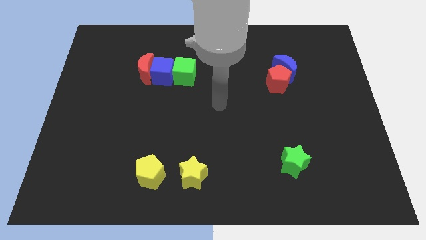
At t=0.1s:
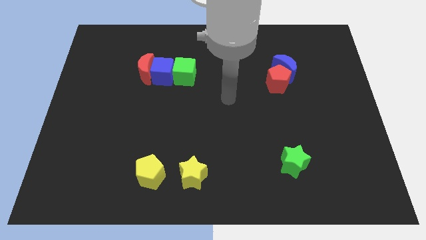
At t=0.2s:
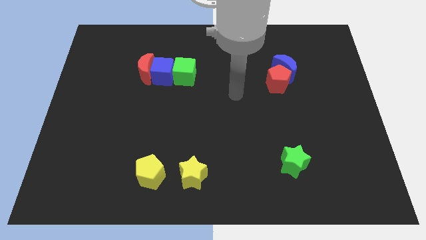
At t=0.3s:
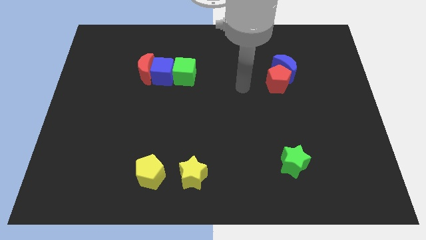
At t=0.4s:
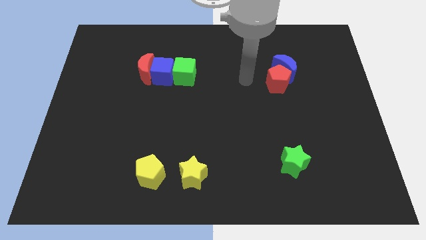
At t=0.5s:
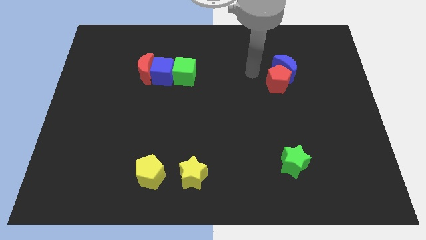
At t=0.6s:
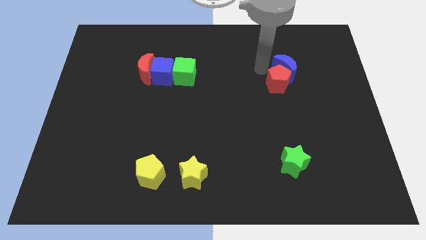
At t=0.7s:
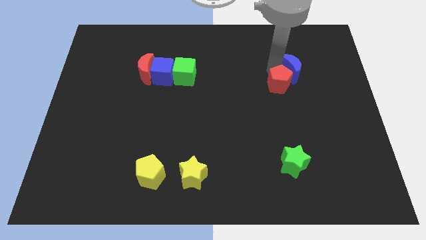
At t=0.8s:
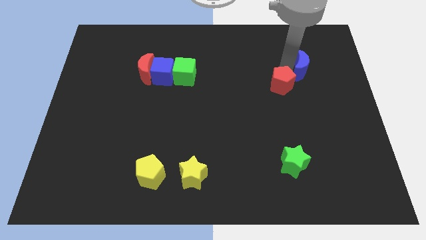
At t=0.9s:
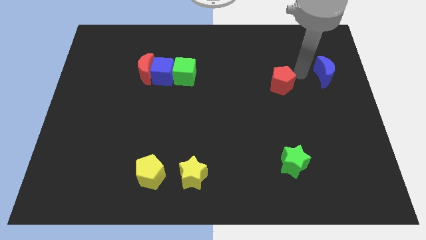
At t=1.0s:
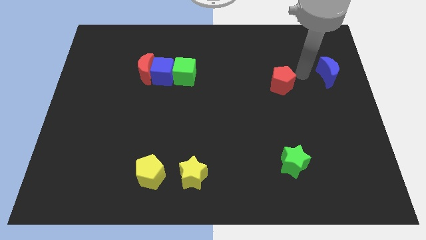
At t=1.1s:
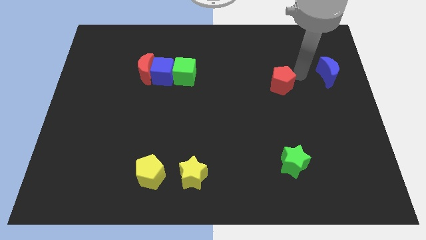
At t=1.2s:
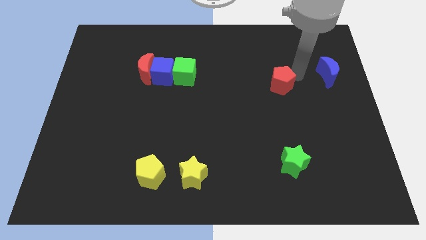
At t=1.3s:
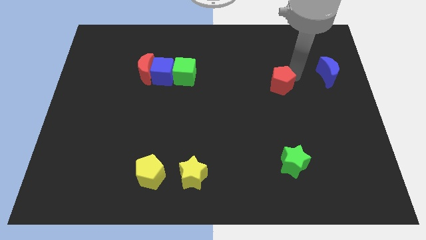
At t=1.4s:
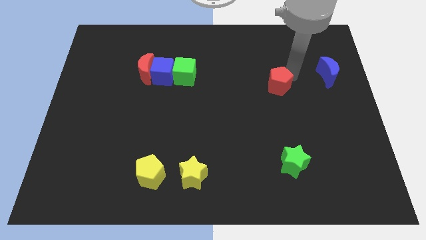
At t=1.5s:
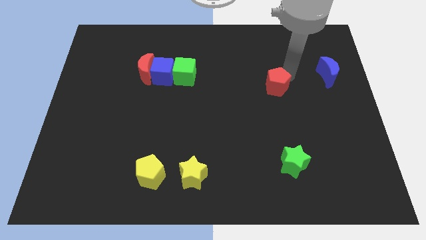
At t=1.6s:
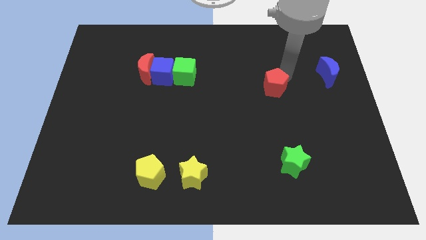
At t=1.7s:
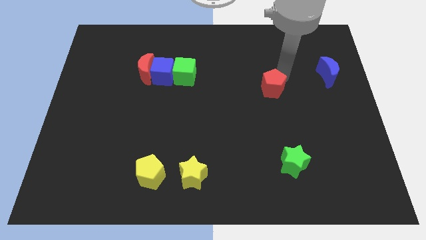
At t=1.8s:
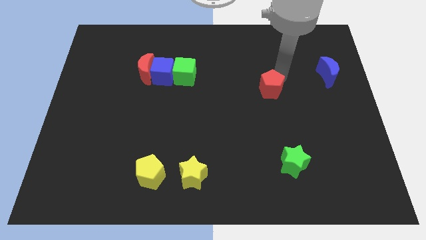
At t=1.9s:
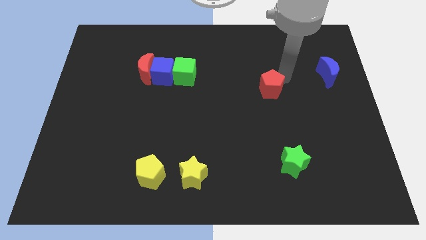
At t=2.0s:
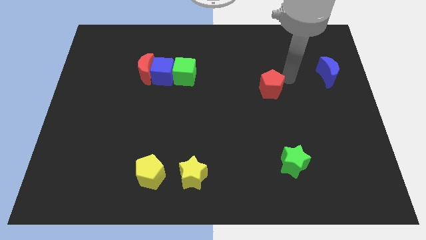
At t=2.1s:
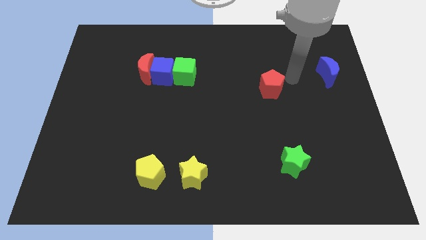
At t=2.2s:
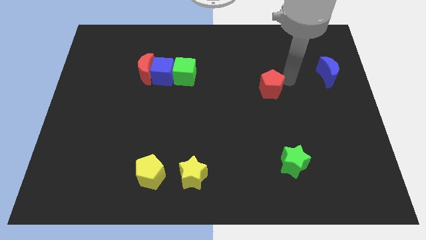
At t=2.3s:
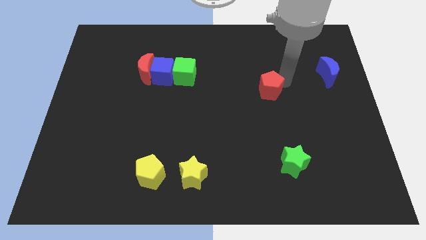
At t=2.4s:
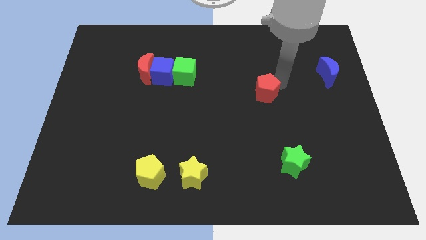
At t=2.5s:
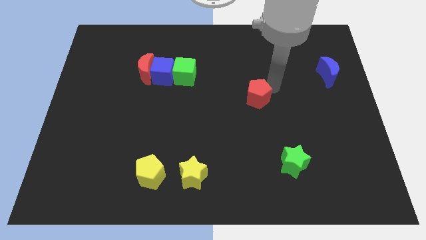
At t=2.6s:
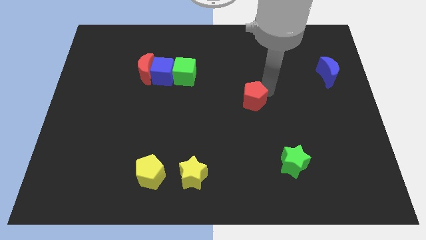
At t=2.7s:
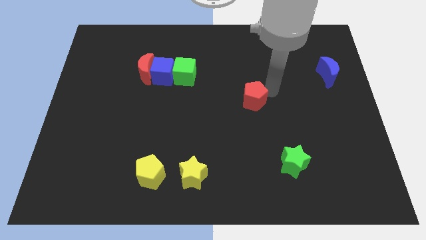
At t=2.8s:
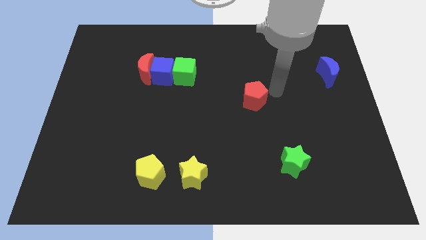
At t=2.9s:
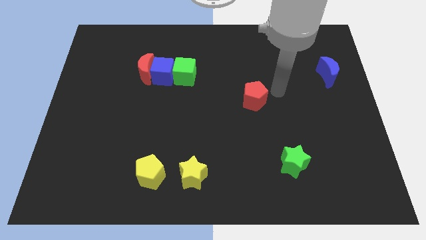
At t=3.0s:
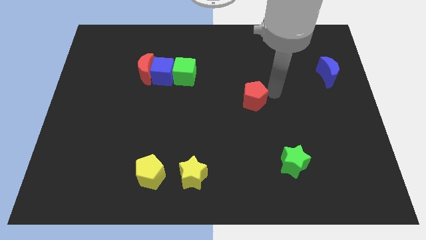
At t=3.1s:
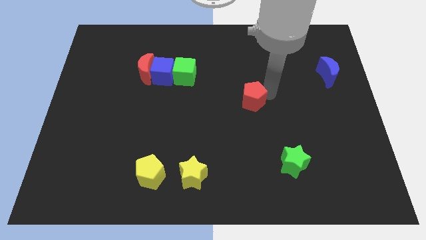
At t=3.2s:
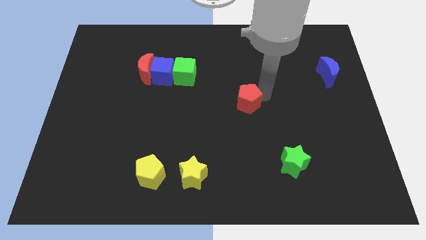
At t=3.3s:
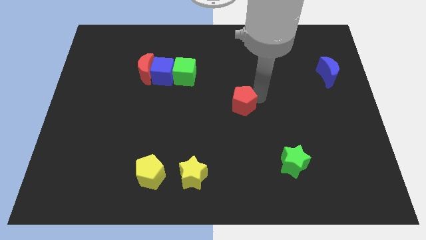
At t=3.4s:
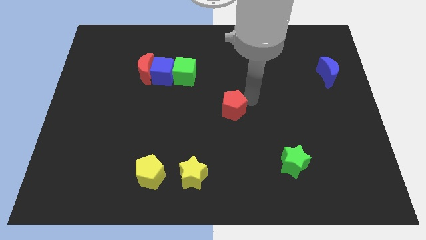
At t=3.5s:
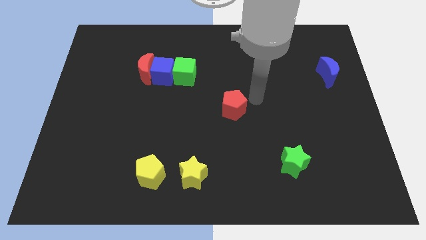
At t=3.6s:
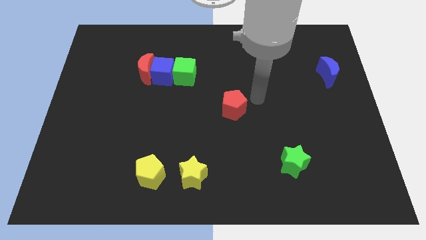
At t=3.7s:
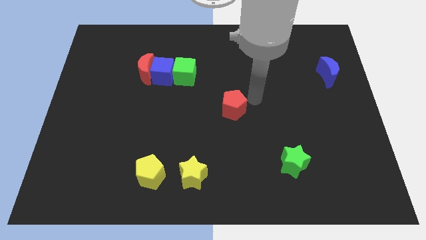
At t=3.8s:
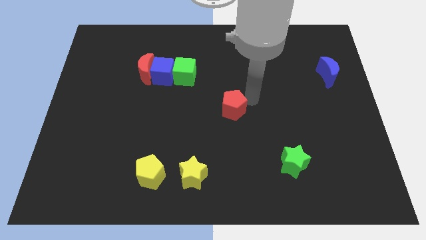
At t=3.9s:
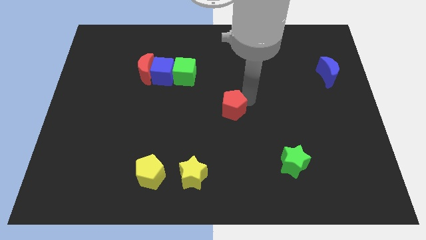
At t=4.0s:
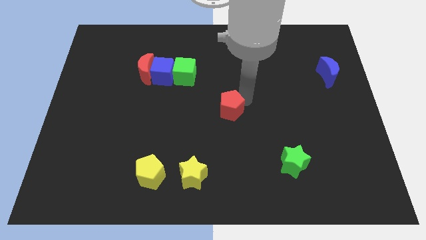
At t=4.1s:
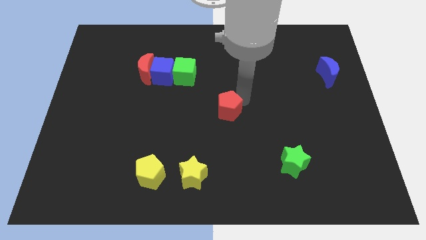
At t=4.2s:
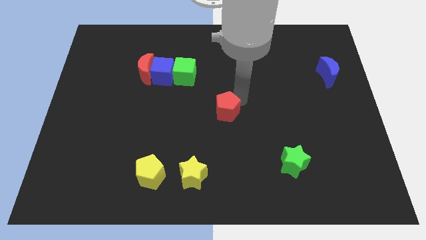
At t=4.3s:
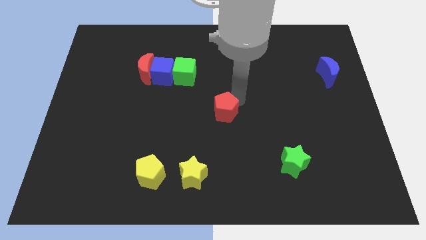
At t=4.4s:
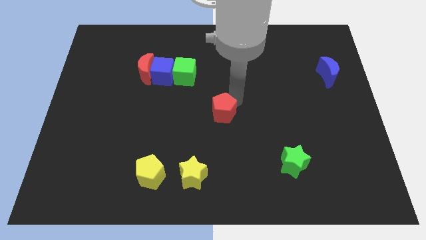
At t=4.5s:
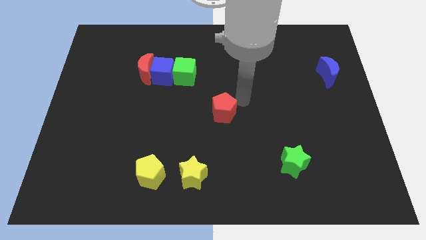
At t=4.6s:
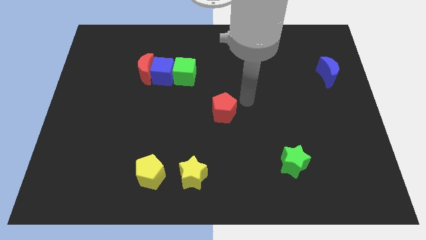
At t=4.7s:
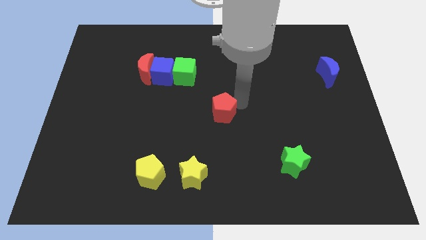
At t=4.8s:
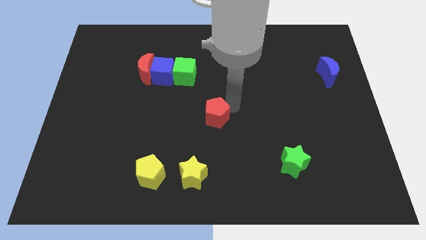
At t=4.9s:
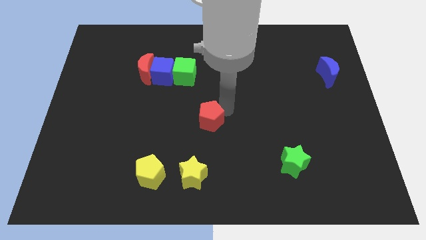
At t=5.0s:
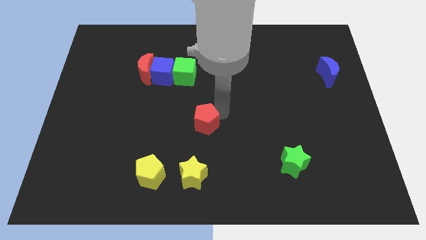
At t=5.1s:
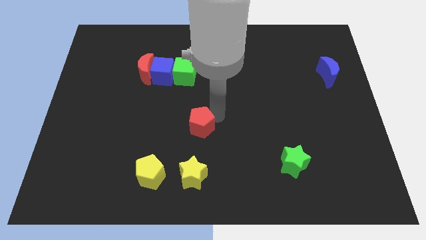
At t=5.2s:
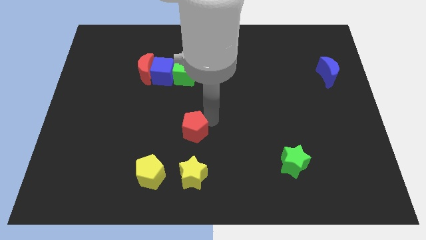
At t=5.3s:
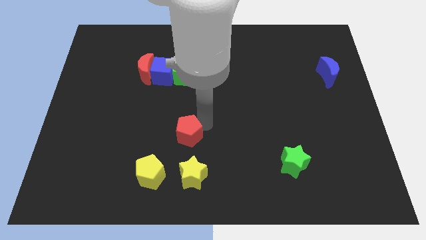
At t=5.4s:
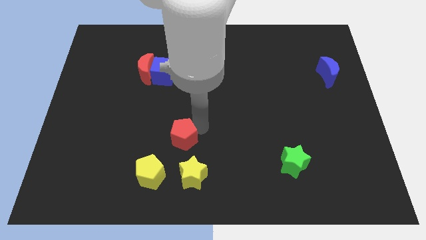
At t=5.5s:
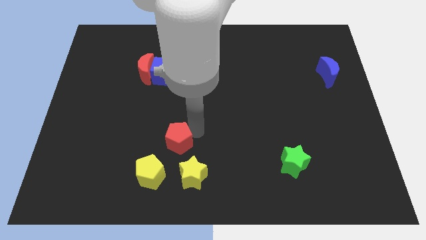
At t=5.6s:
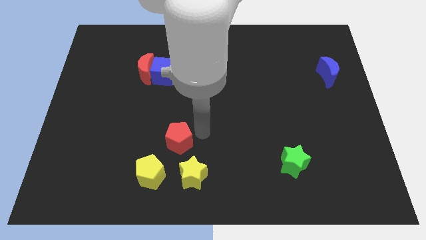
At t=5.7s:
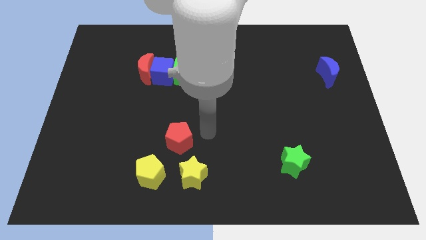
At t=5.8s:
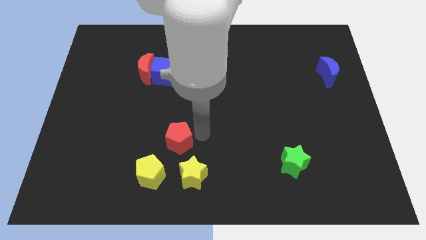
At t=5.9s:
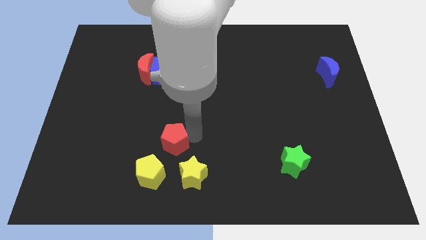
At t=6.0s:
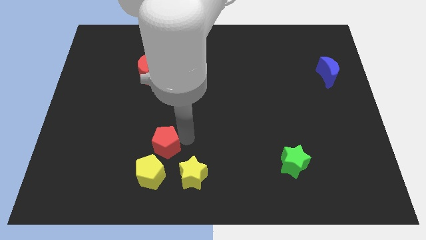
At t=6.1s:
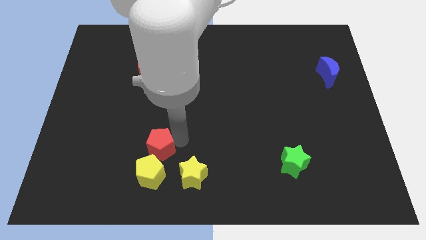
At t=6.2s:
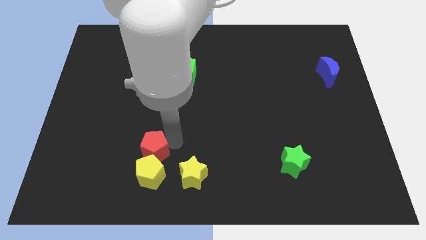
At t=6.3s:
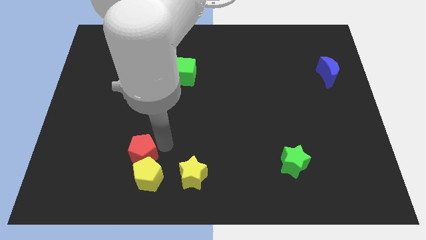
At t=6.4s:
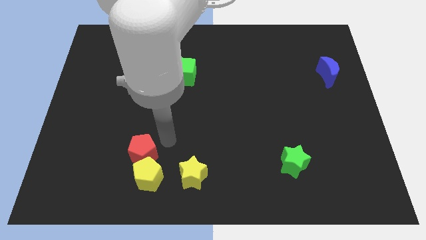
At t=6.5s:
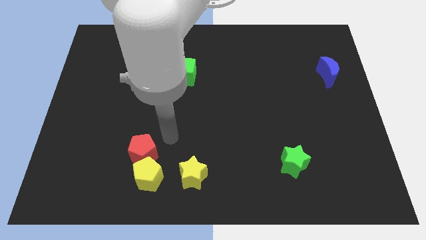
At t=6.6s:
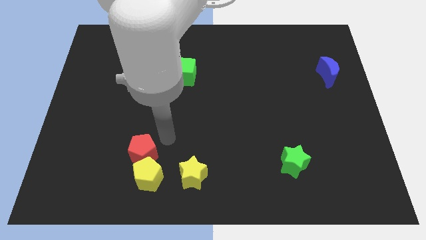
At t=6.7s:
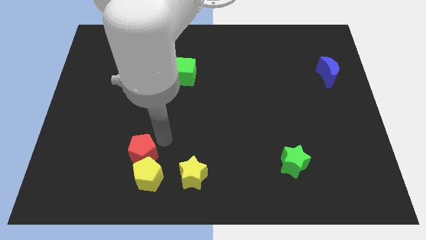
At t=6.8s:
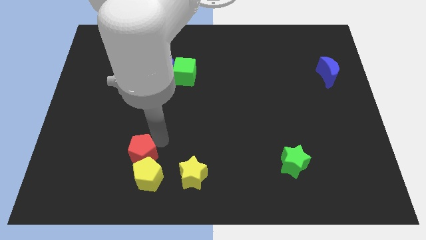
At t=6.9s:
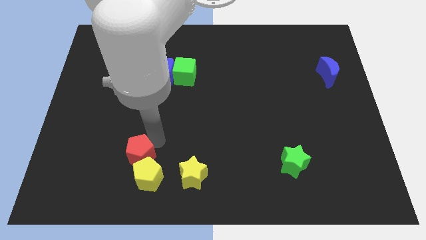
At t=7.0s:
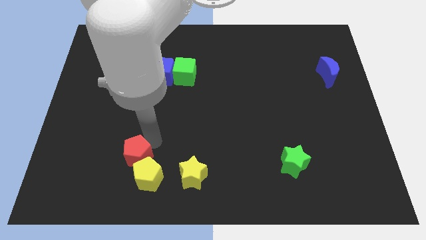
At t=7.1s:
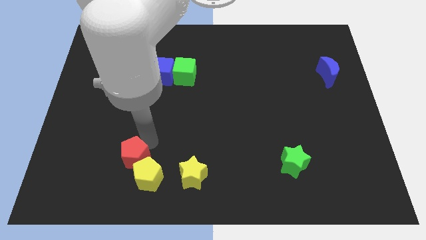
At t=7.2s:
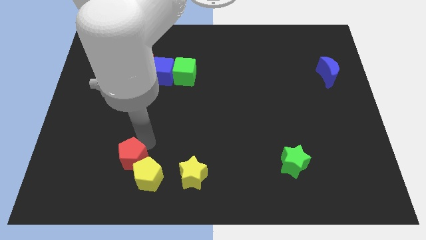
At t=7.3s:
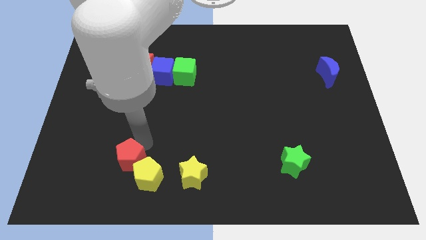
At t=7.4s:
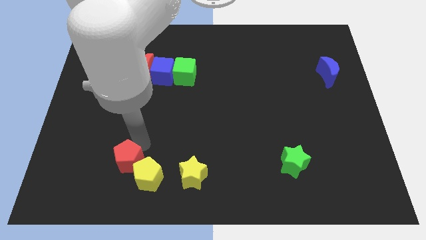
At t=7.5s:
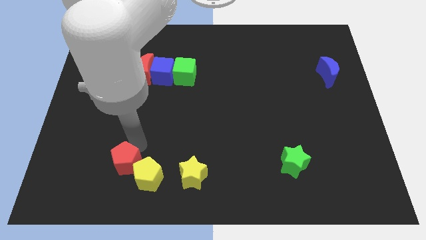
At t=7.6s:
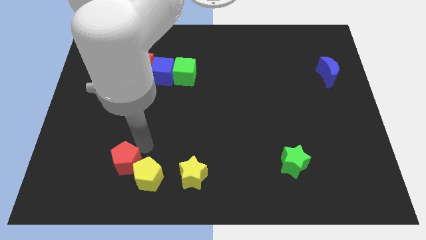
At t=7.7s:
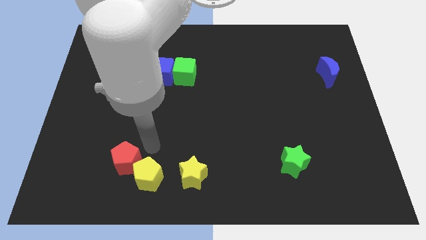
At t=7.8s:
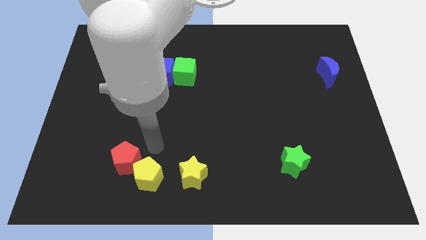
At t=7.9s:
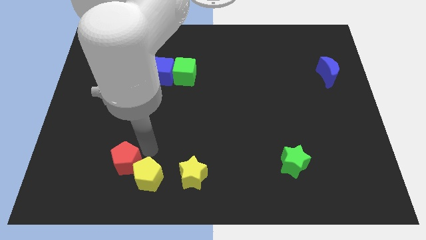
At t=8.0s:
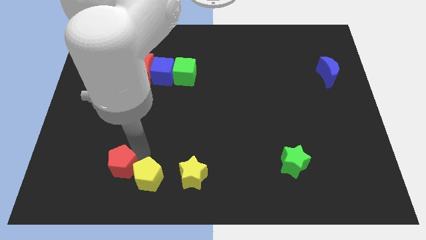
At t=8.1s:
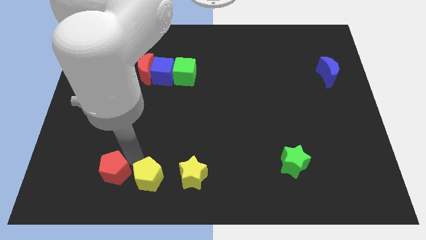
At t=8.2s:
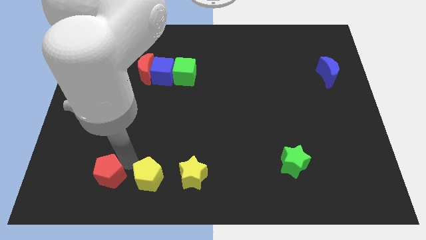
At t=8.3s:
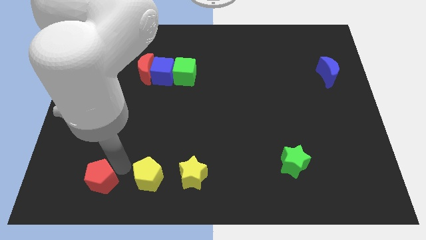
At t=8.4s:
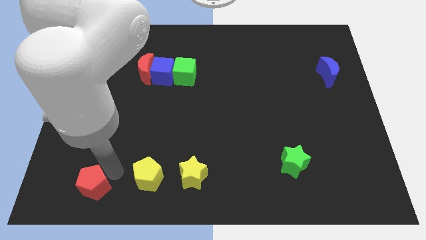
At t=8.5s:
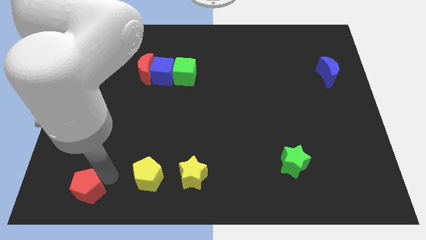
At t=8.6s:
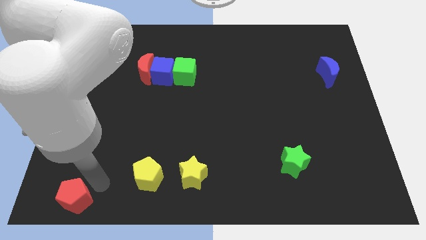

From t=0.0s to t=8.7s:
slide the red pentagon to the bottom left
